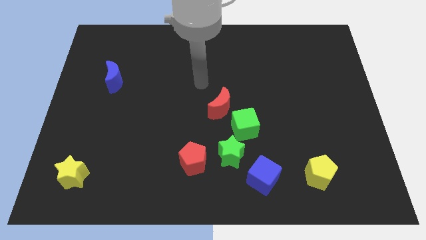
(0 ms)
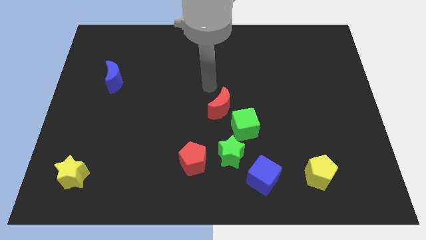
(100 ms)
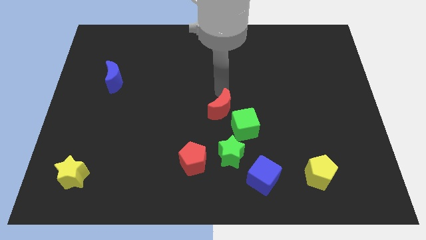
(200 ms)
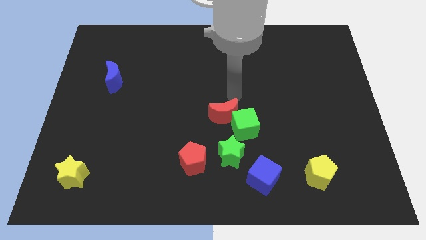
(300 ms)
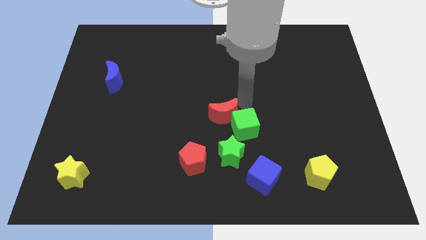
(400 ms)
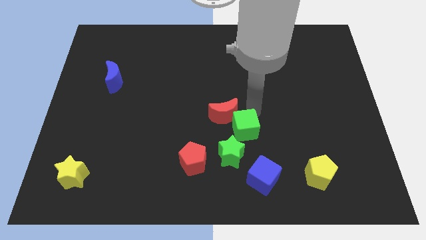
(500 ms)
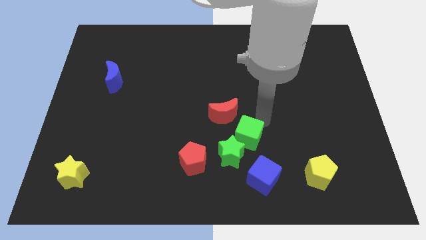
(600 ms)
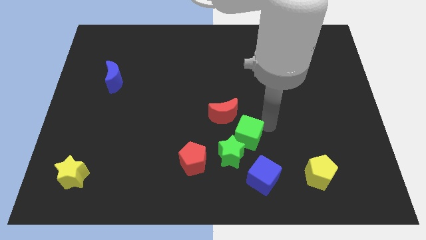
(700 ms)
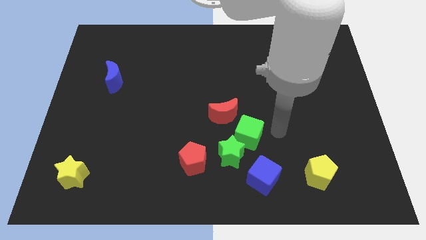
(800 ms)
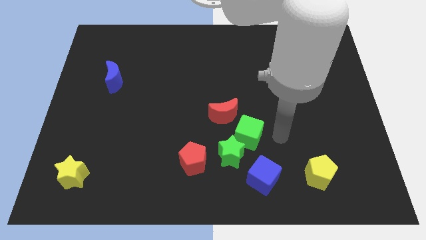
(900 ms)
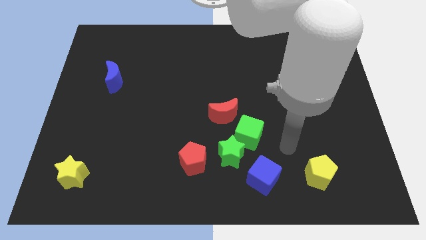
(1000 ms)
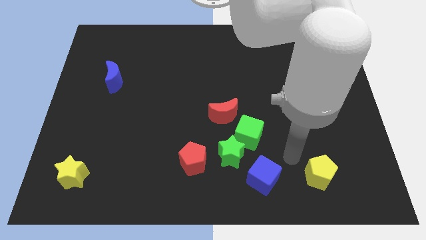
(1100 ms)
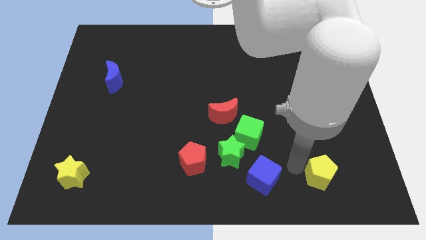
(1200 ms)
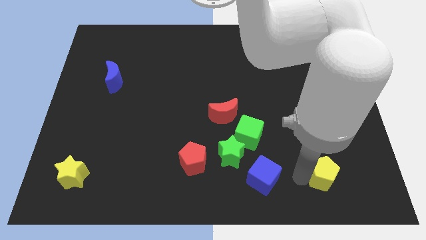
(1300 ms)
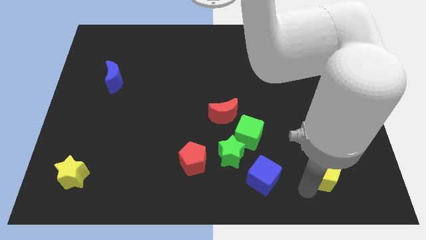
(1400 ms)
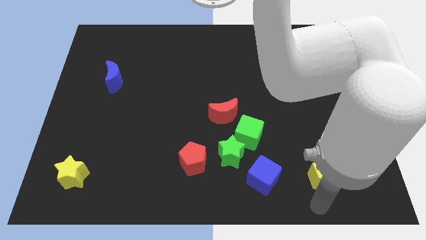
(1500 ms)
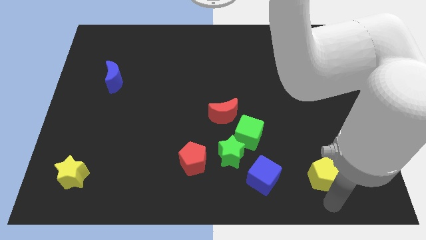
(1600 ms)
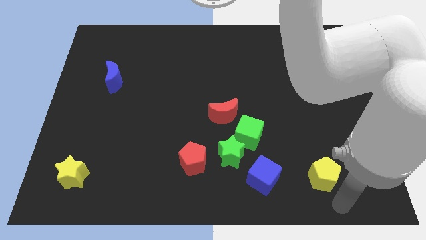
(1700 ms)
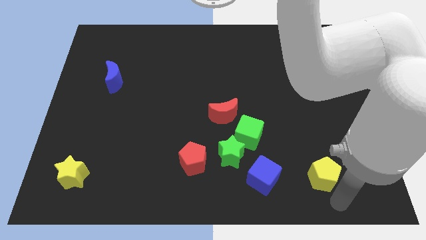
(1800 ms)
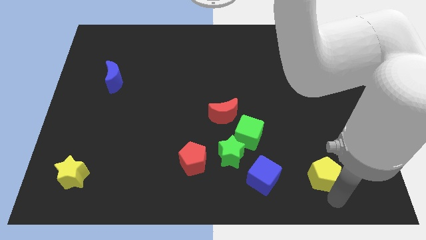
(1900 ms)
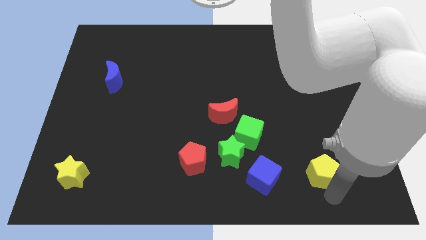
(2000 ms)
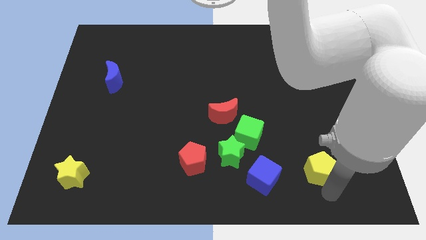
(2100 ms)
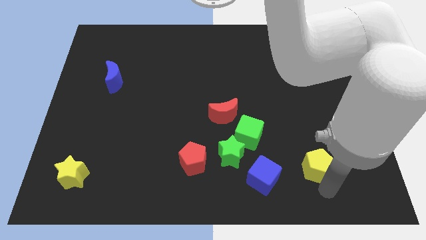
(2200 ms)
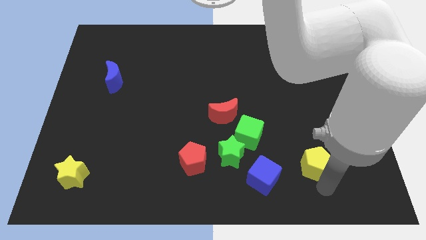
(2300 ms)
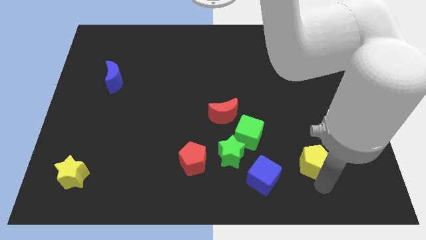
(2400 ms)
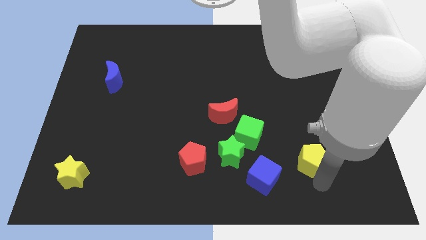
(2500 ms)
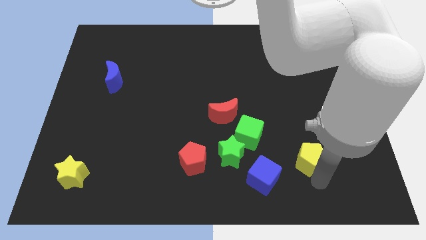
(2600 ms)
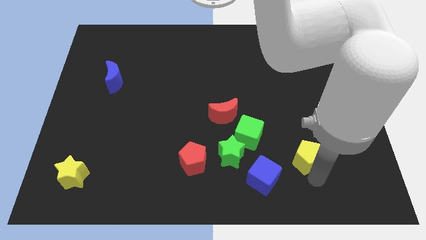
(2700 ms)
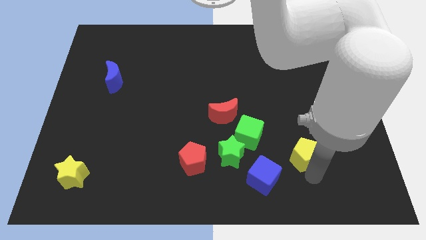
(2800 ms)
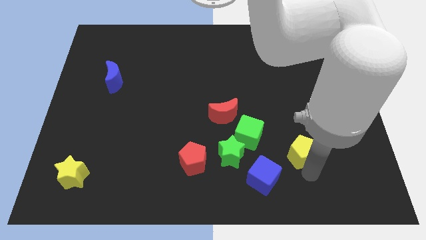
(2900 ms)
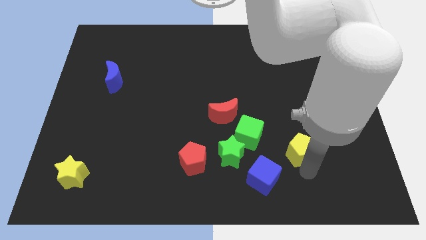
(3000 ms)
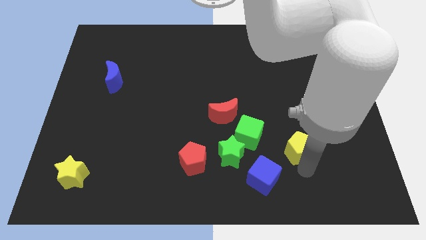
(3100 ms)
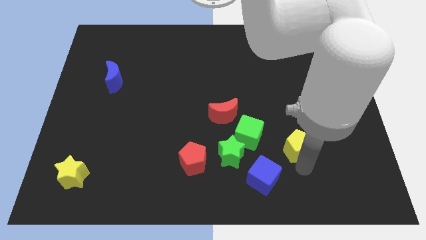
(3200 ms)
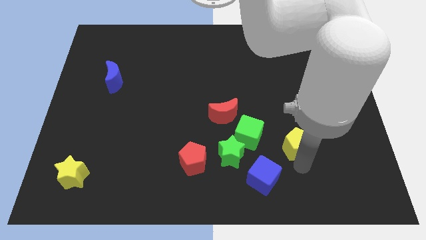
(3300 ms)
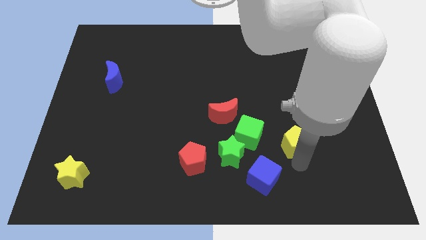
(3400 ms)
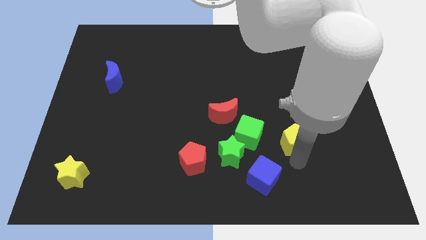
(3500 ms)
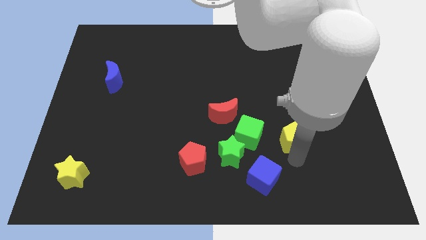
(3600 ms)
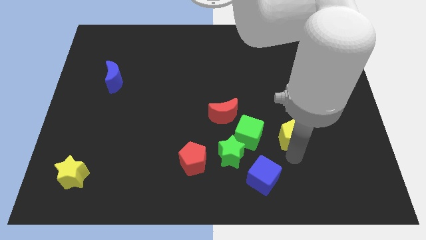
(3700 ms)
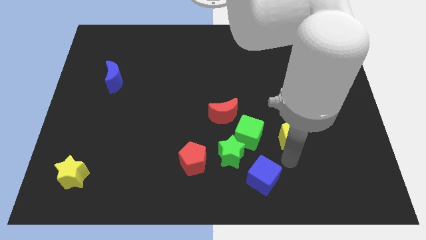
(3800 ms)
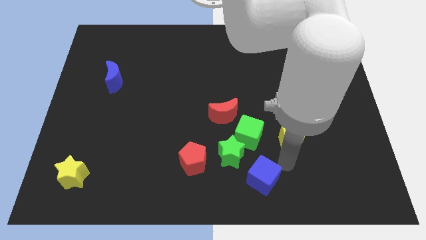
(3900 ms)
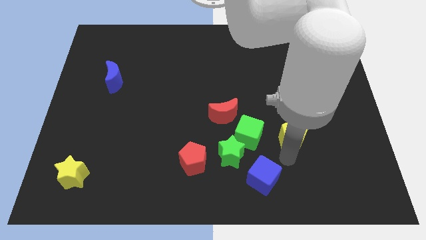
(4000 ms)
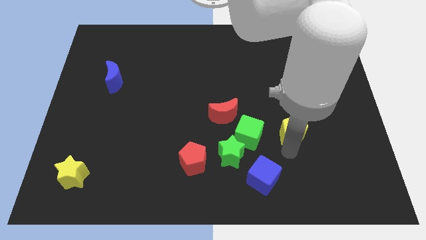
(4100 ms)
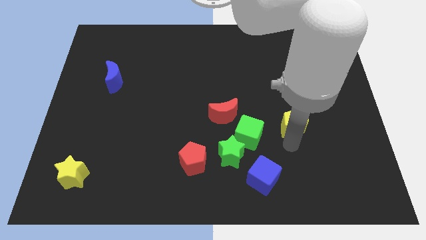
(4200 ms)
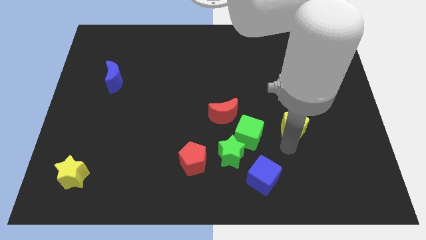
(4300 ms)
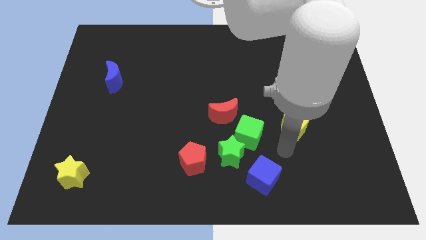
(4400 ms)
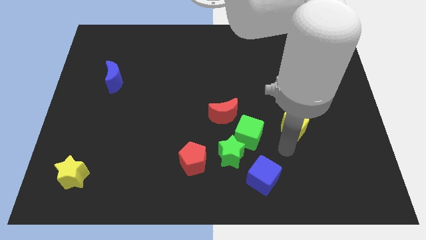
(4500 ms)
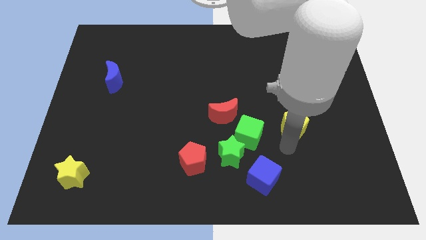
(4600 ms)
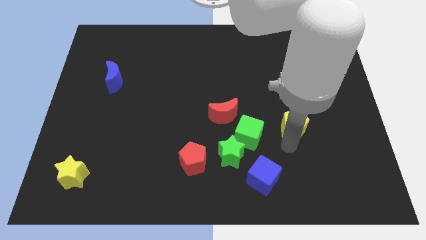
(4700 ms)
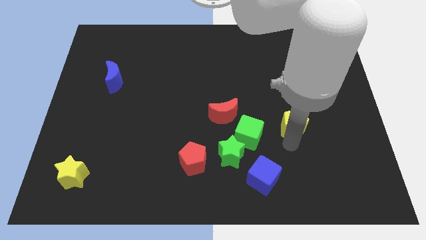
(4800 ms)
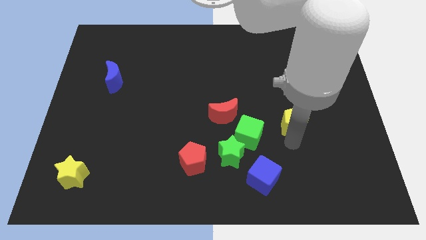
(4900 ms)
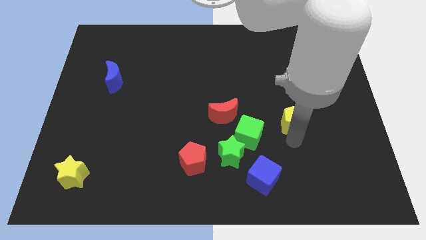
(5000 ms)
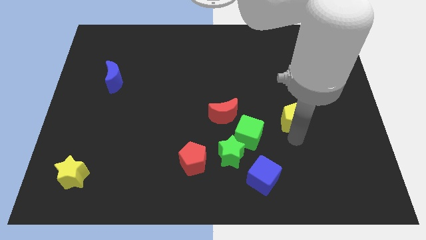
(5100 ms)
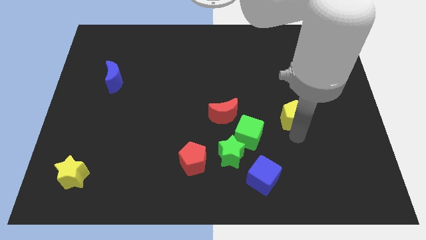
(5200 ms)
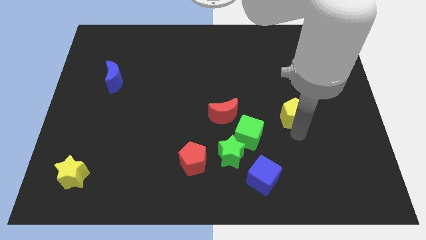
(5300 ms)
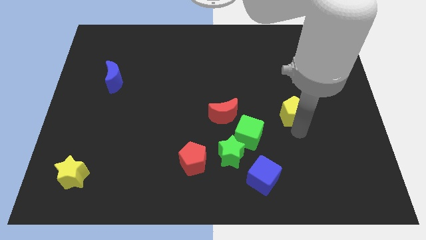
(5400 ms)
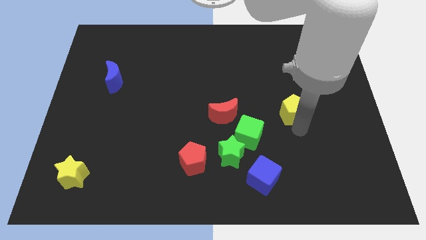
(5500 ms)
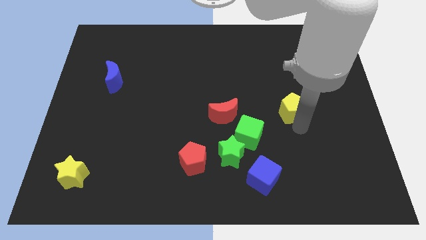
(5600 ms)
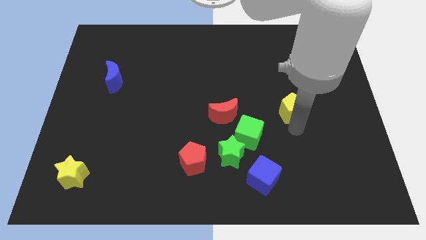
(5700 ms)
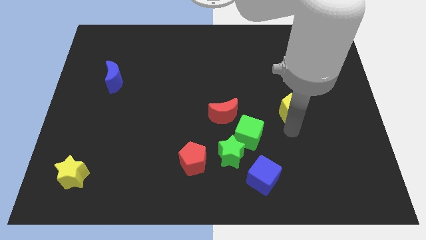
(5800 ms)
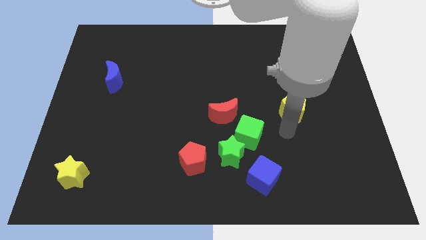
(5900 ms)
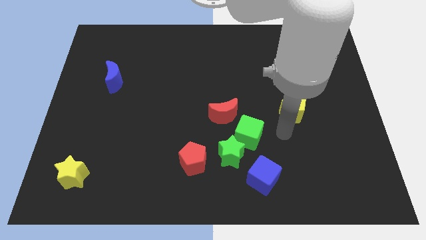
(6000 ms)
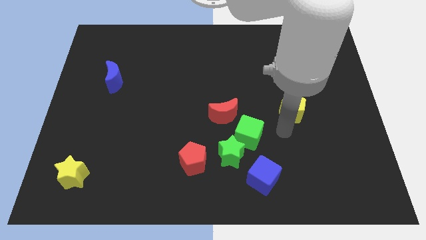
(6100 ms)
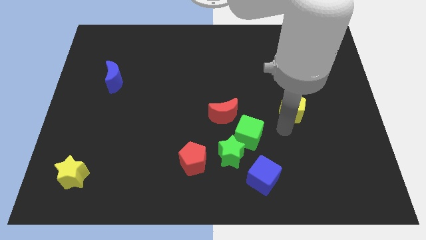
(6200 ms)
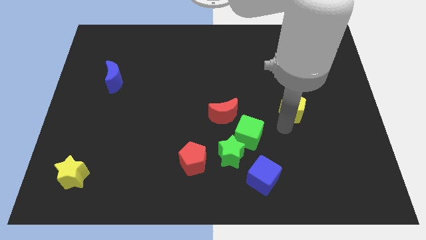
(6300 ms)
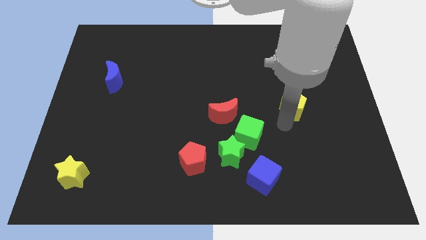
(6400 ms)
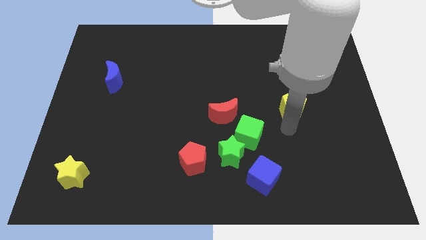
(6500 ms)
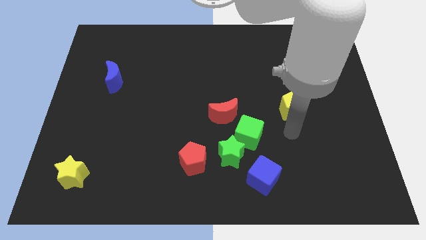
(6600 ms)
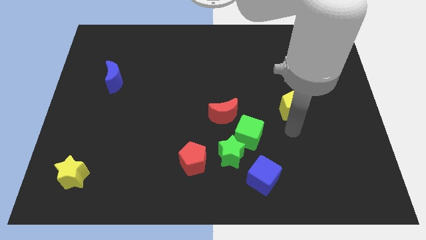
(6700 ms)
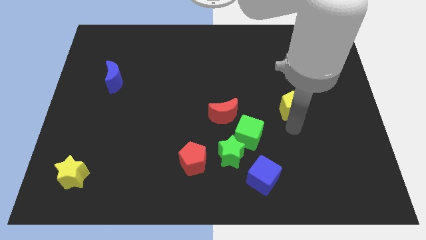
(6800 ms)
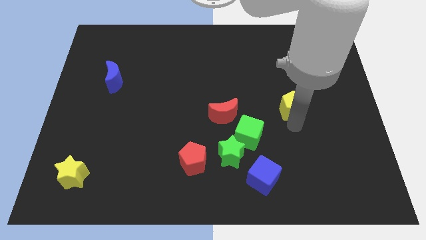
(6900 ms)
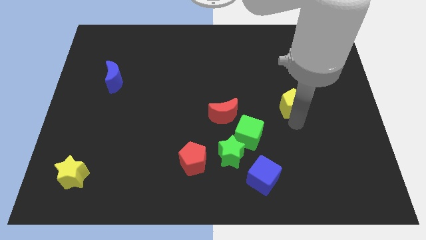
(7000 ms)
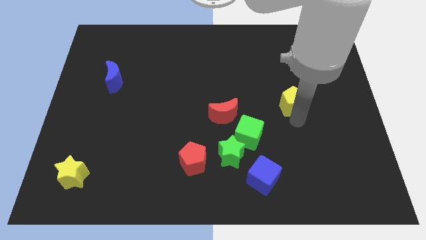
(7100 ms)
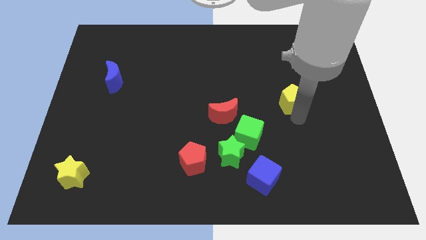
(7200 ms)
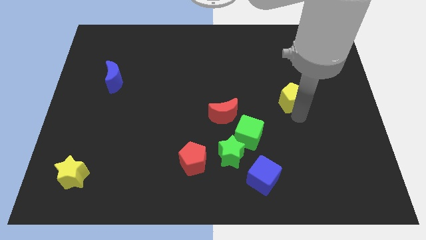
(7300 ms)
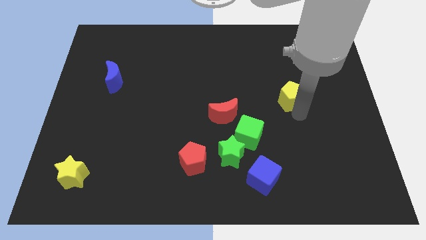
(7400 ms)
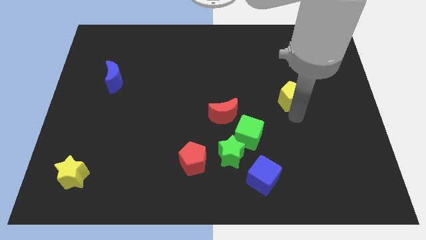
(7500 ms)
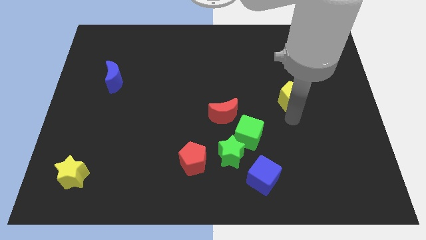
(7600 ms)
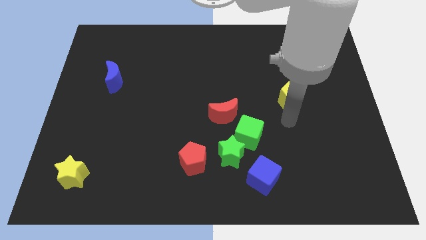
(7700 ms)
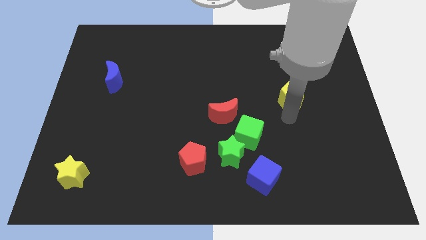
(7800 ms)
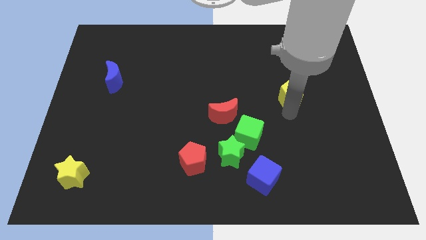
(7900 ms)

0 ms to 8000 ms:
slide the yellow pentagon upwards

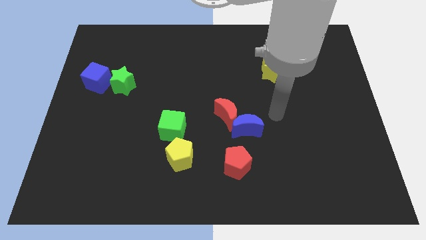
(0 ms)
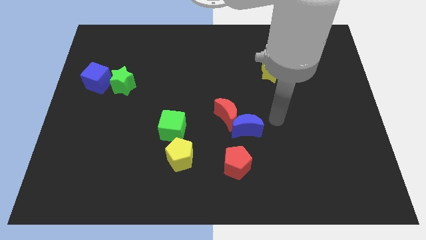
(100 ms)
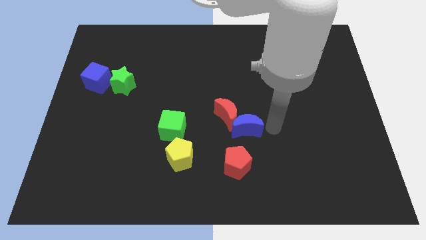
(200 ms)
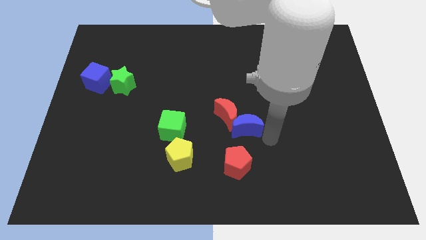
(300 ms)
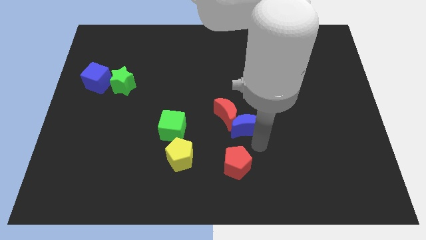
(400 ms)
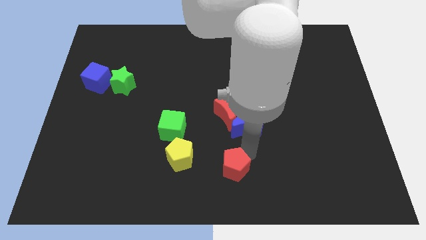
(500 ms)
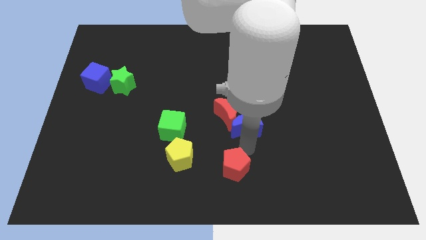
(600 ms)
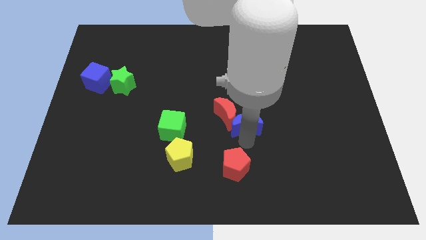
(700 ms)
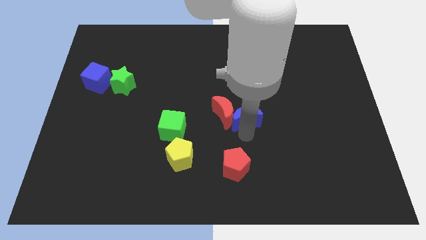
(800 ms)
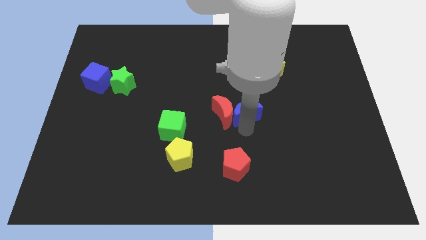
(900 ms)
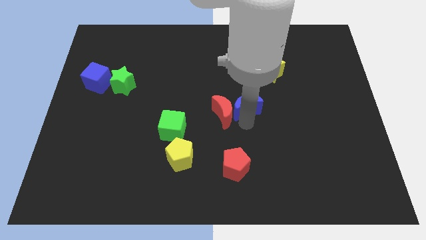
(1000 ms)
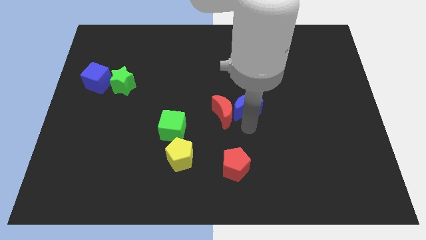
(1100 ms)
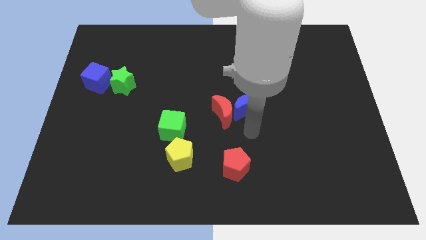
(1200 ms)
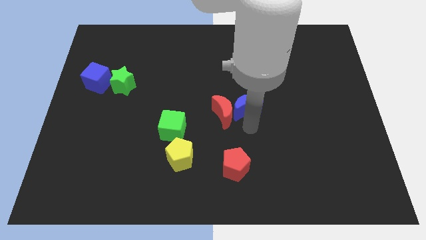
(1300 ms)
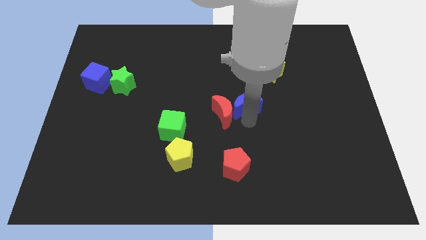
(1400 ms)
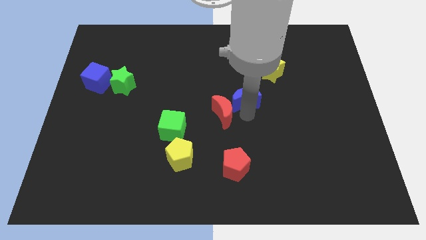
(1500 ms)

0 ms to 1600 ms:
move the blue moon a bit upwards
